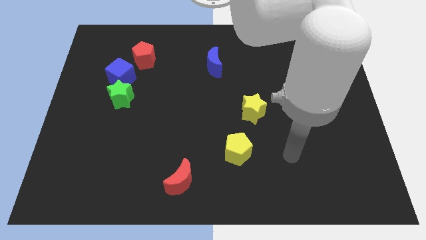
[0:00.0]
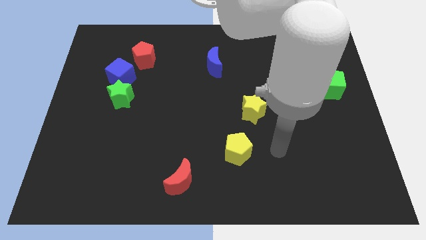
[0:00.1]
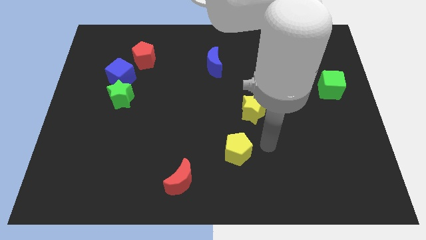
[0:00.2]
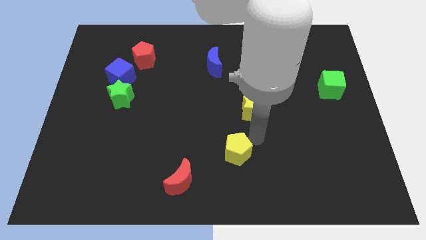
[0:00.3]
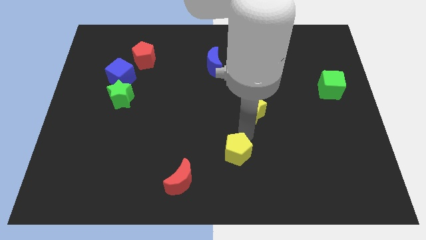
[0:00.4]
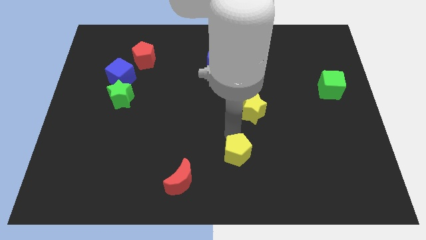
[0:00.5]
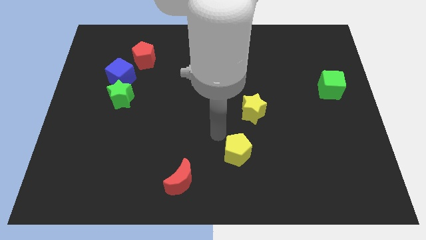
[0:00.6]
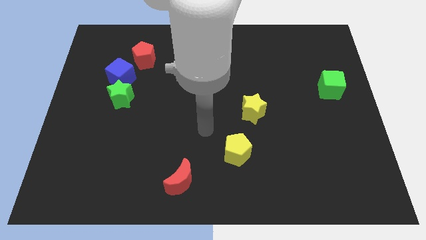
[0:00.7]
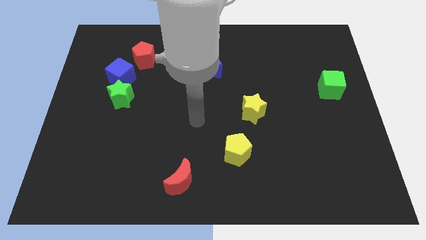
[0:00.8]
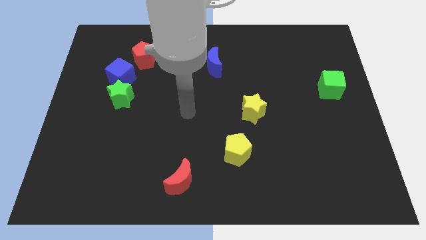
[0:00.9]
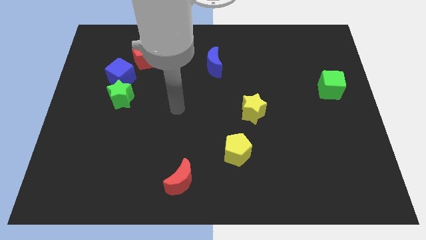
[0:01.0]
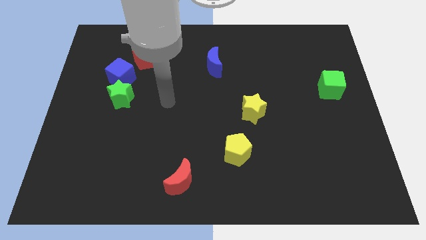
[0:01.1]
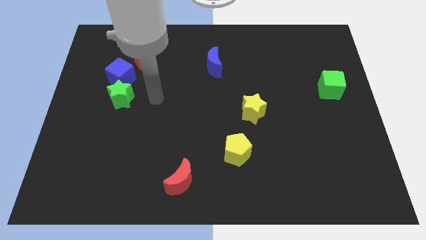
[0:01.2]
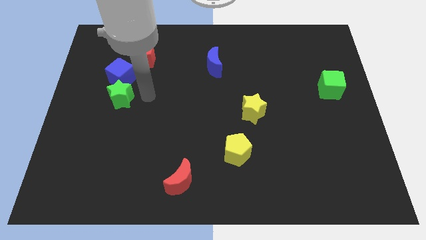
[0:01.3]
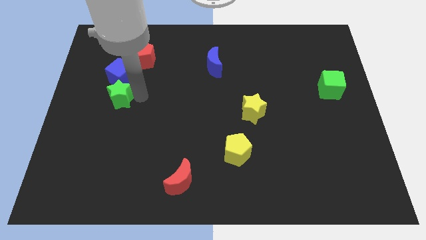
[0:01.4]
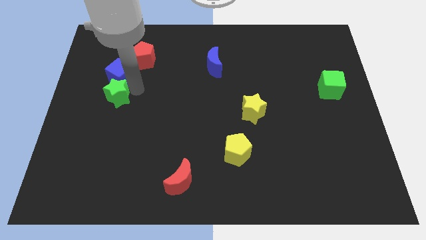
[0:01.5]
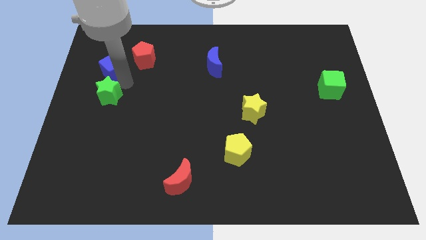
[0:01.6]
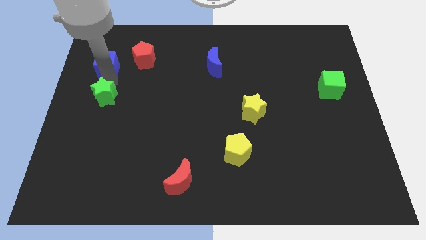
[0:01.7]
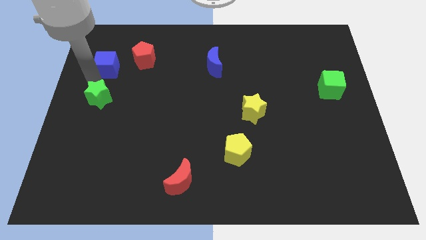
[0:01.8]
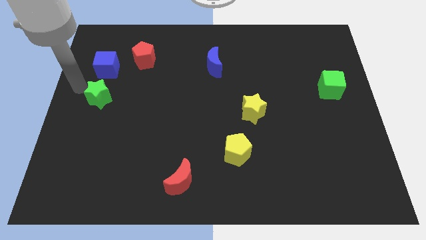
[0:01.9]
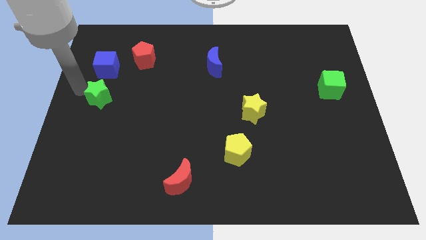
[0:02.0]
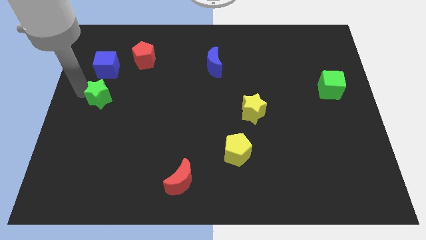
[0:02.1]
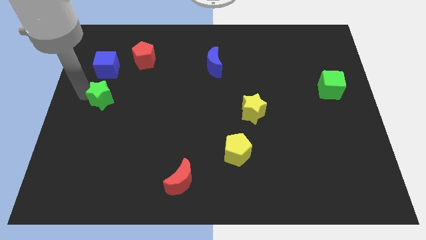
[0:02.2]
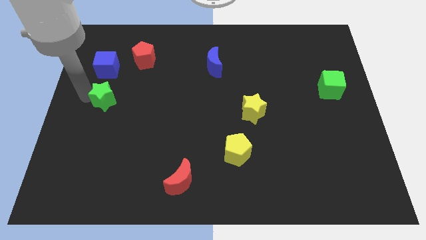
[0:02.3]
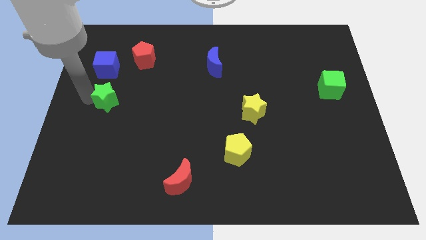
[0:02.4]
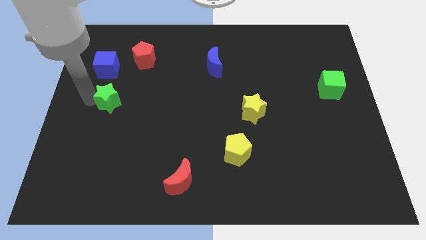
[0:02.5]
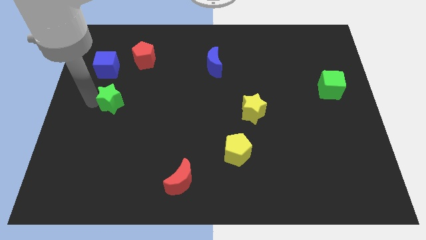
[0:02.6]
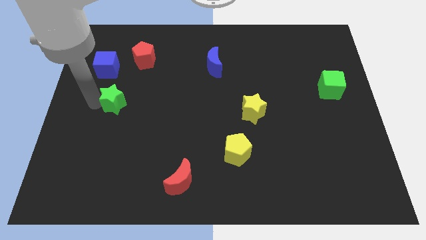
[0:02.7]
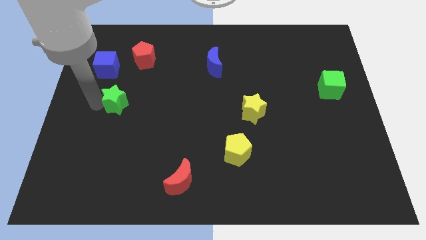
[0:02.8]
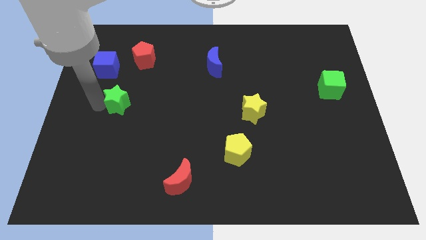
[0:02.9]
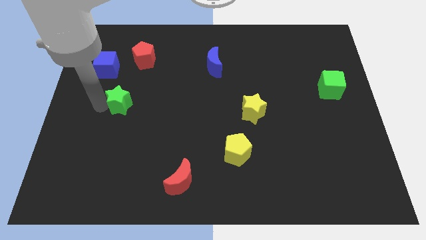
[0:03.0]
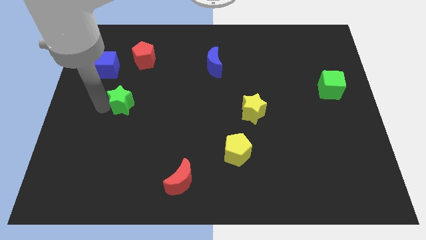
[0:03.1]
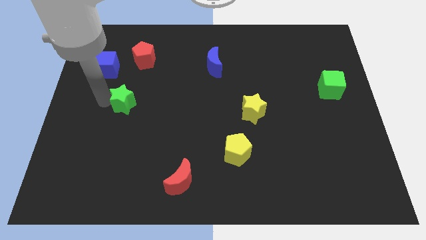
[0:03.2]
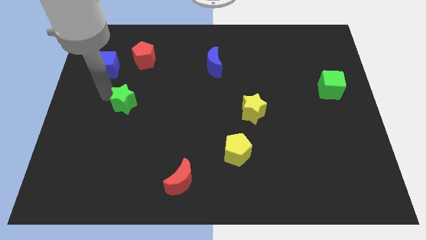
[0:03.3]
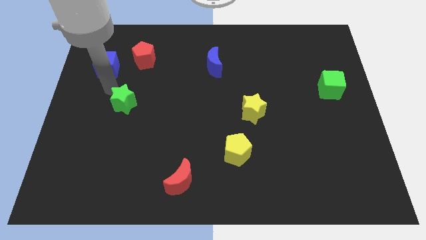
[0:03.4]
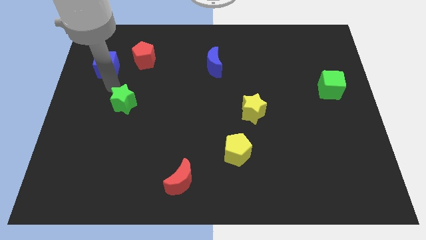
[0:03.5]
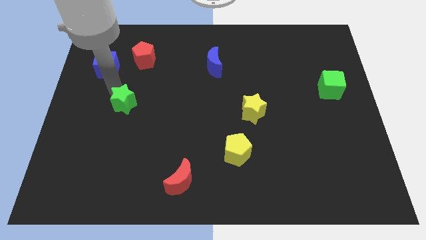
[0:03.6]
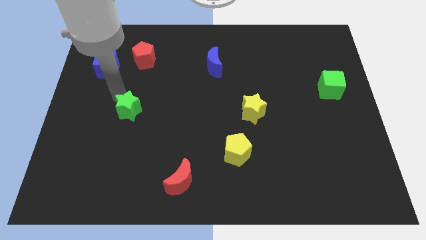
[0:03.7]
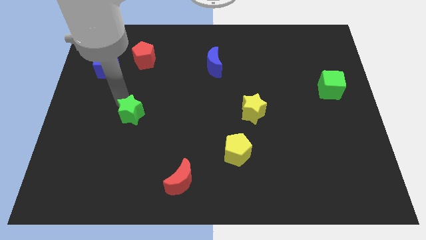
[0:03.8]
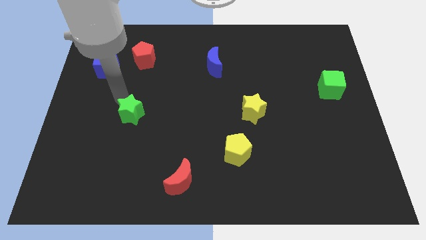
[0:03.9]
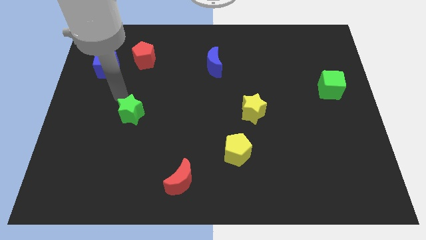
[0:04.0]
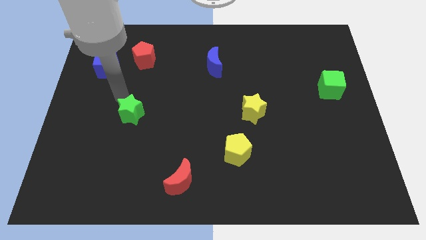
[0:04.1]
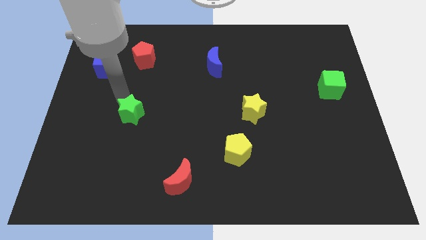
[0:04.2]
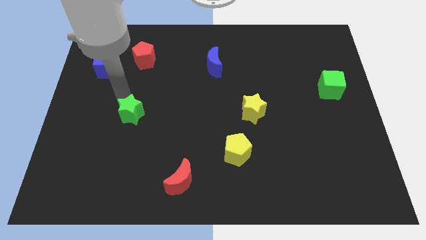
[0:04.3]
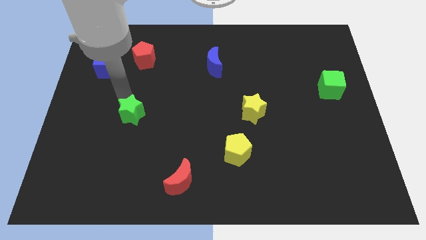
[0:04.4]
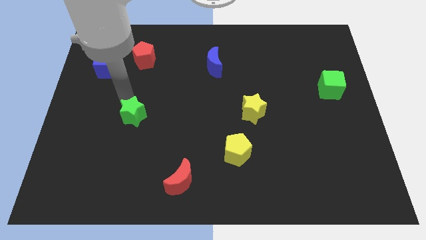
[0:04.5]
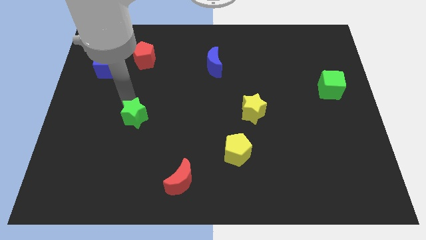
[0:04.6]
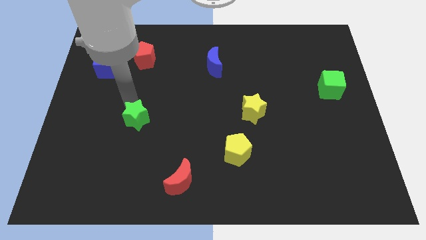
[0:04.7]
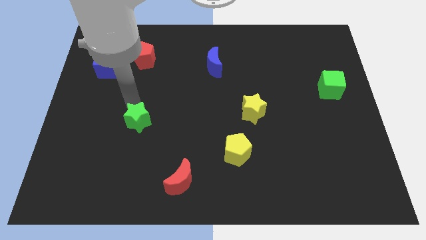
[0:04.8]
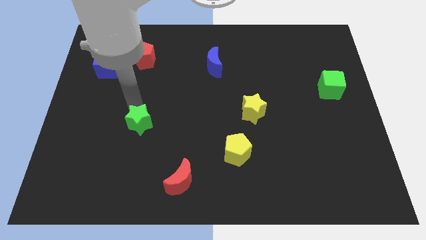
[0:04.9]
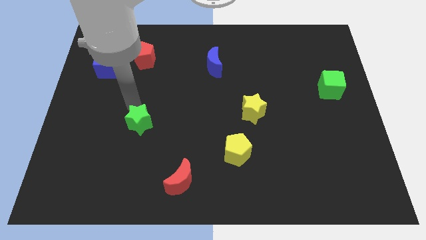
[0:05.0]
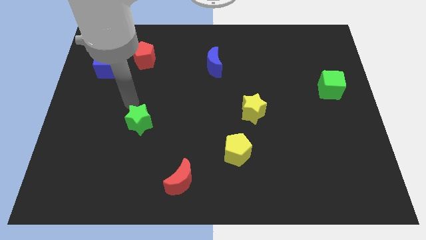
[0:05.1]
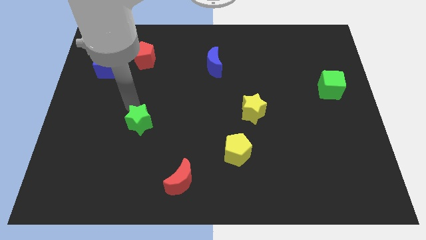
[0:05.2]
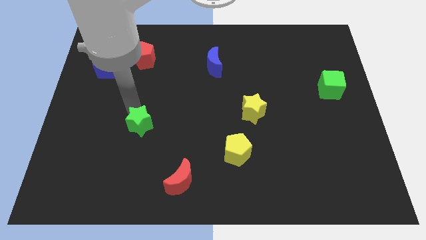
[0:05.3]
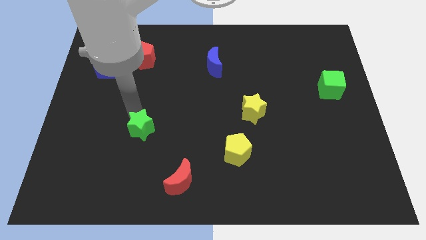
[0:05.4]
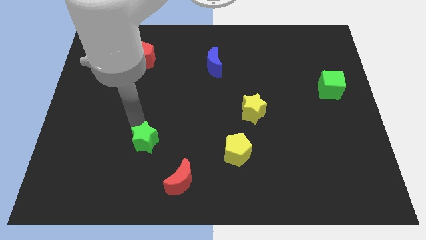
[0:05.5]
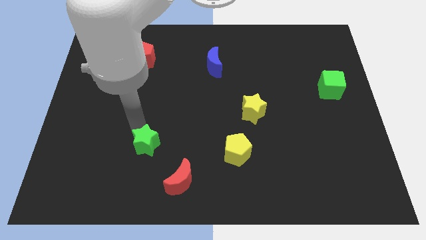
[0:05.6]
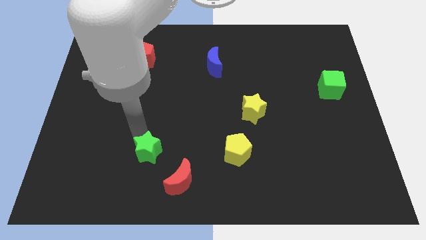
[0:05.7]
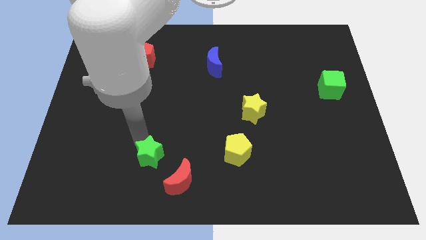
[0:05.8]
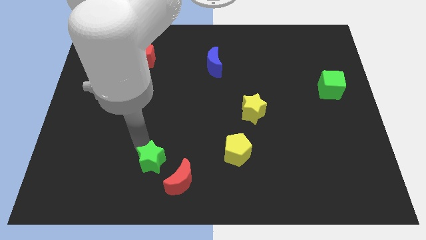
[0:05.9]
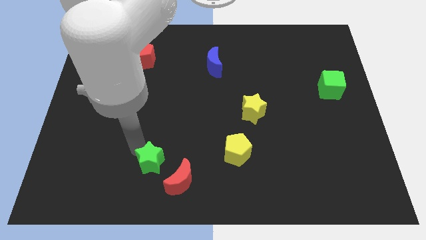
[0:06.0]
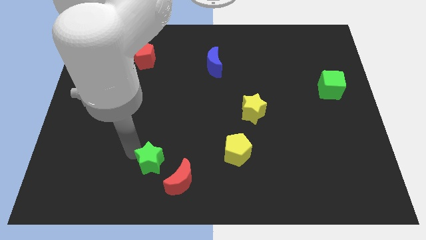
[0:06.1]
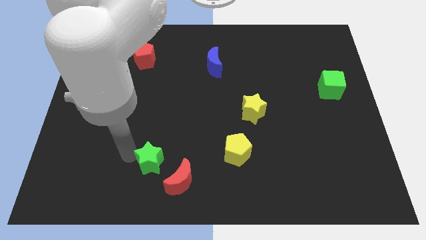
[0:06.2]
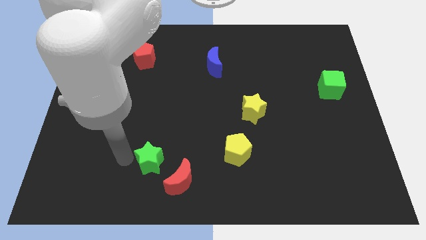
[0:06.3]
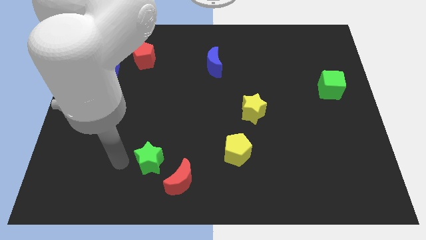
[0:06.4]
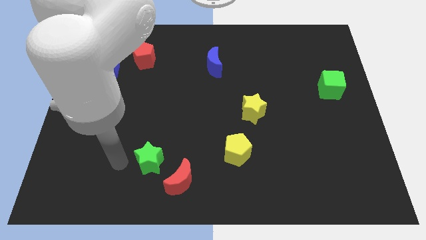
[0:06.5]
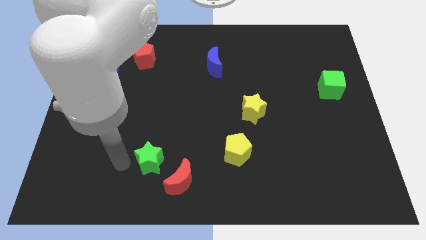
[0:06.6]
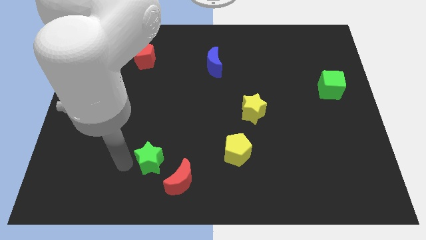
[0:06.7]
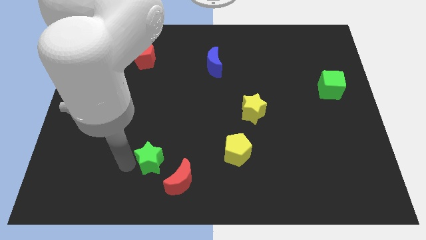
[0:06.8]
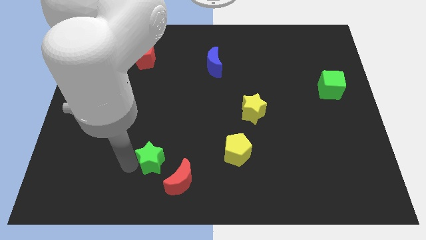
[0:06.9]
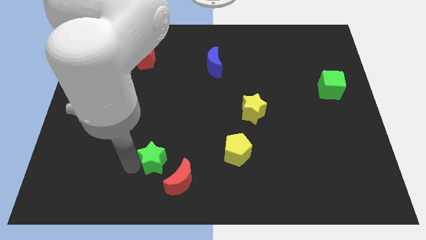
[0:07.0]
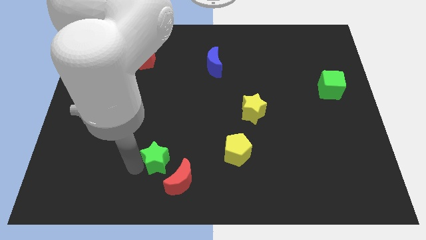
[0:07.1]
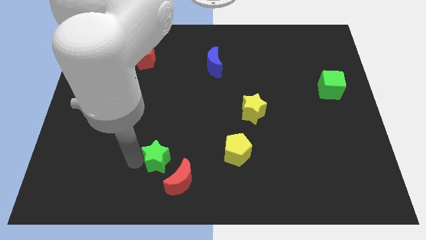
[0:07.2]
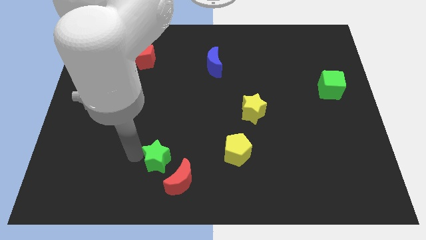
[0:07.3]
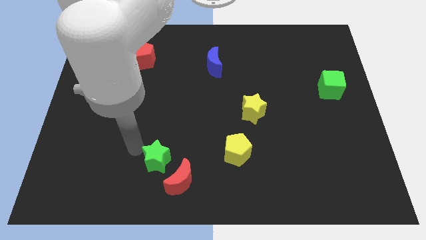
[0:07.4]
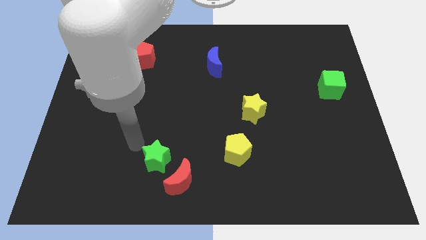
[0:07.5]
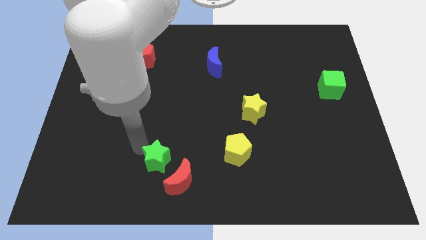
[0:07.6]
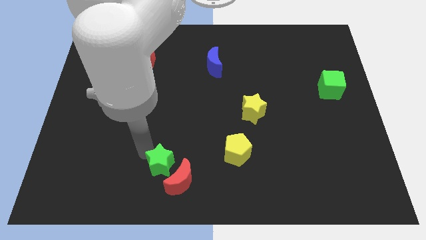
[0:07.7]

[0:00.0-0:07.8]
slide the green star next to the red moon
